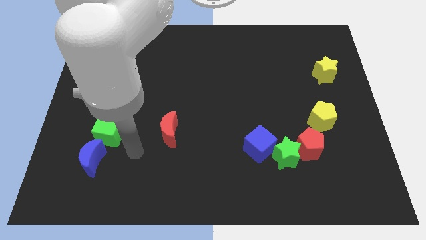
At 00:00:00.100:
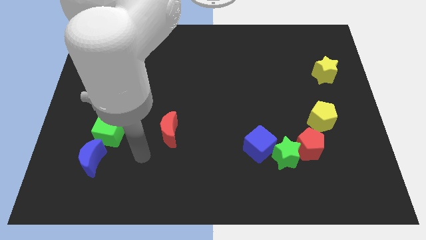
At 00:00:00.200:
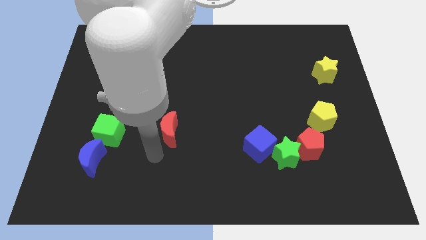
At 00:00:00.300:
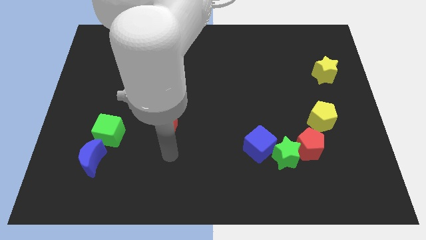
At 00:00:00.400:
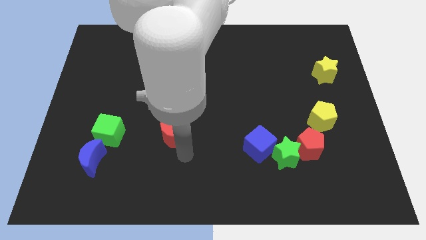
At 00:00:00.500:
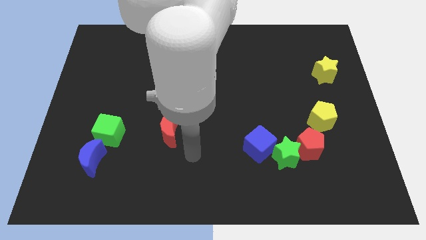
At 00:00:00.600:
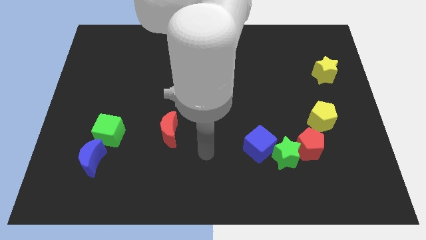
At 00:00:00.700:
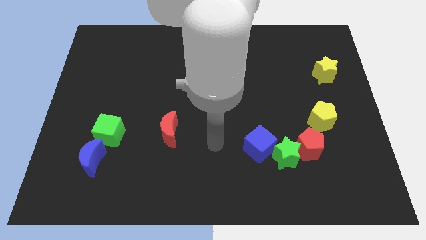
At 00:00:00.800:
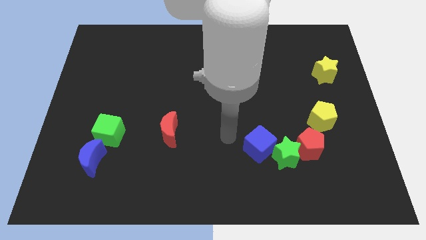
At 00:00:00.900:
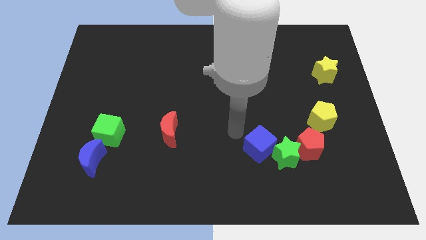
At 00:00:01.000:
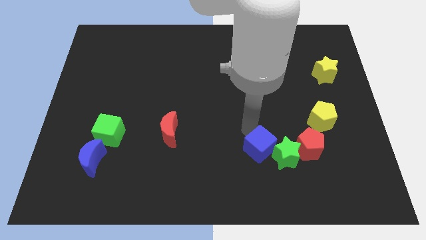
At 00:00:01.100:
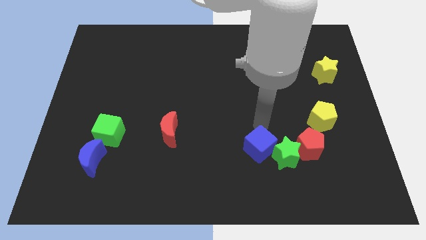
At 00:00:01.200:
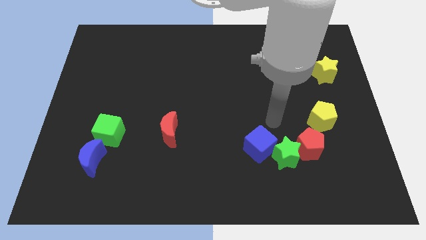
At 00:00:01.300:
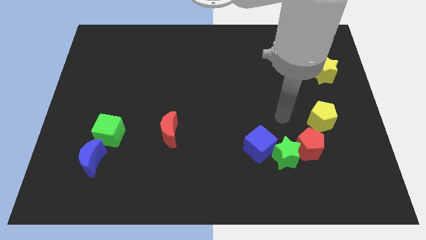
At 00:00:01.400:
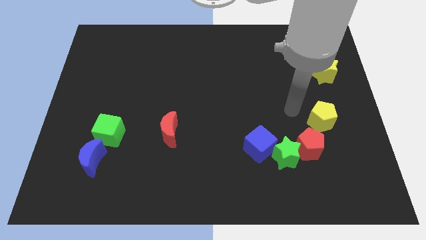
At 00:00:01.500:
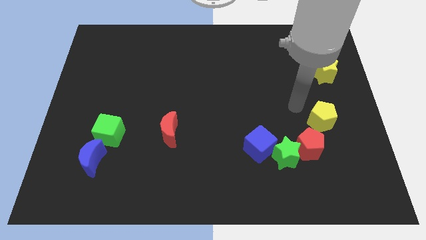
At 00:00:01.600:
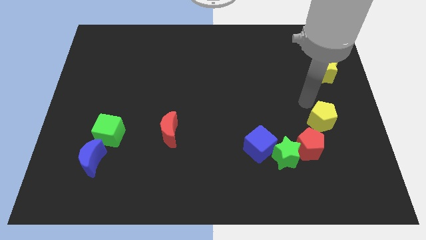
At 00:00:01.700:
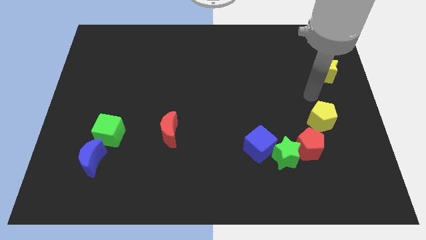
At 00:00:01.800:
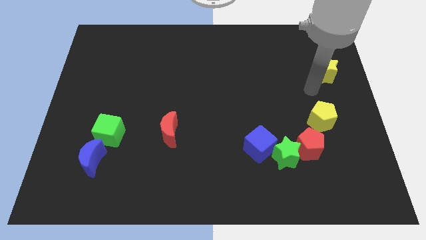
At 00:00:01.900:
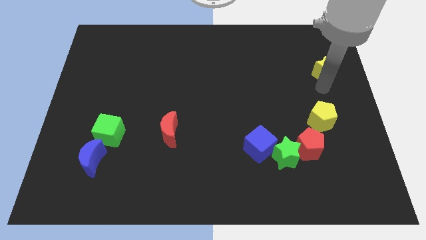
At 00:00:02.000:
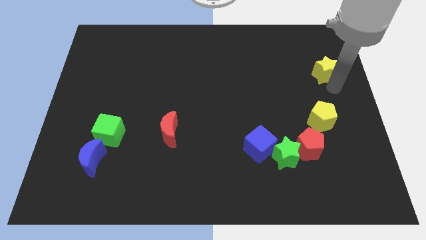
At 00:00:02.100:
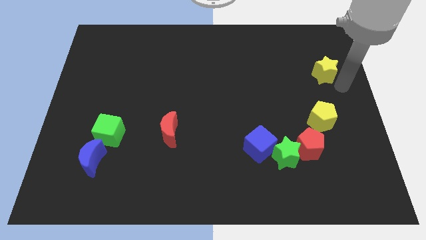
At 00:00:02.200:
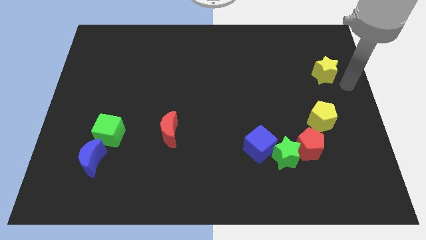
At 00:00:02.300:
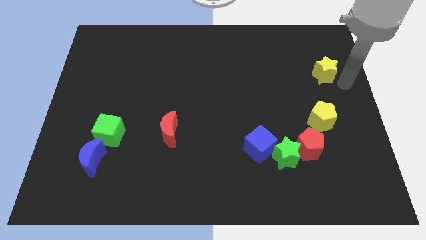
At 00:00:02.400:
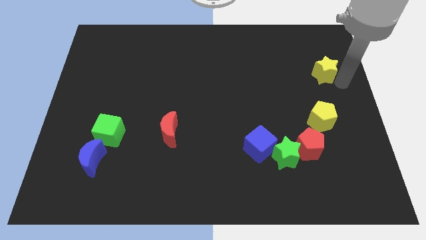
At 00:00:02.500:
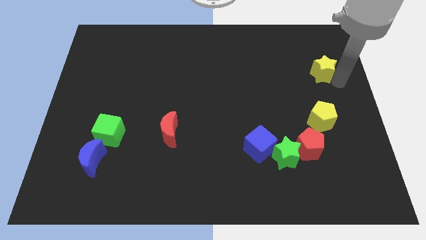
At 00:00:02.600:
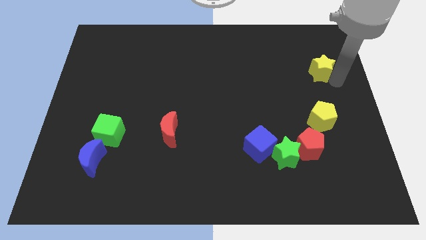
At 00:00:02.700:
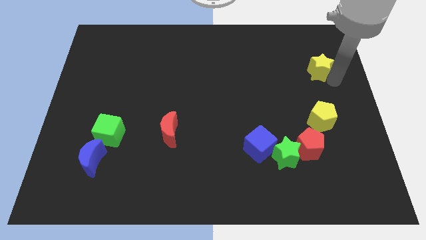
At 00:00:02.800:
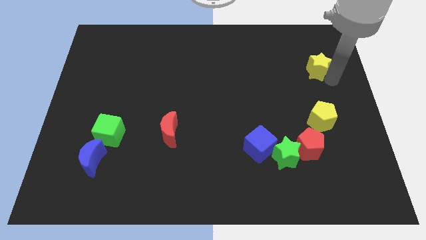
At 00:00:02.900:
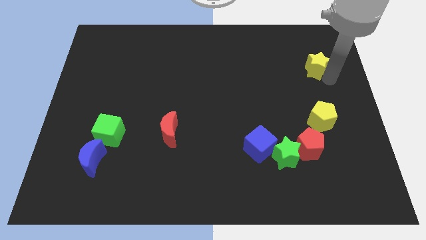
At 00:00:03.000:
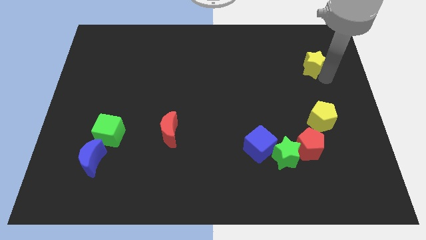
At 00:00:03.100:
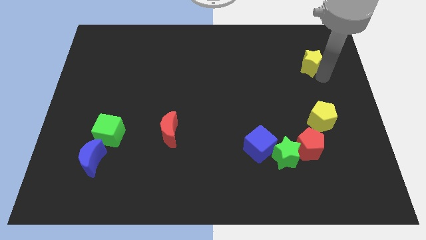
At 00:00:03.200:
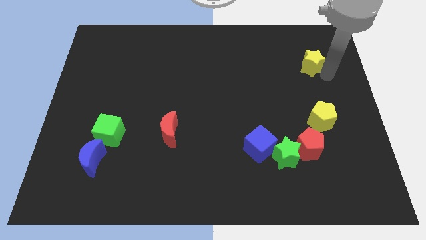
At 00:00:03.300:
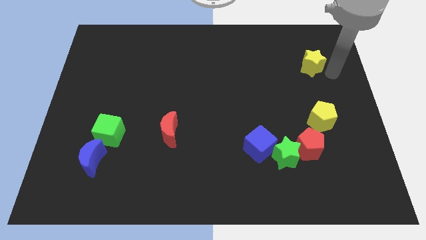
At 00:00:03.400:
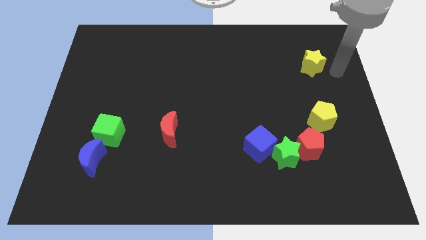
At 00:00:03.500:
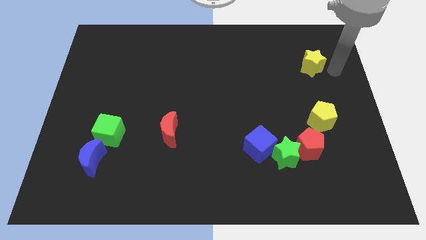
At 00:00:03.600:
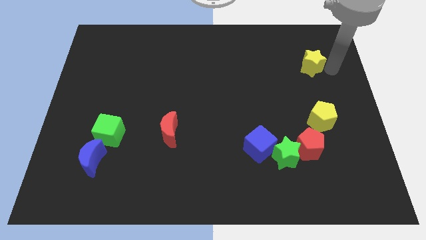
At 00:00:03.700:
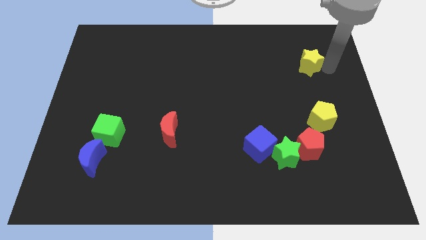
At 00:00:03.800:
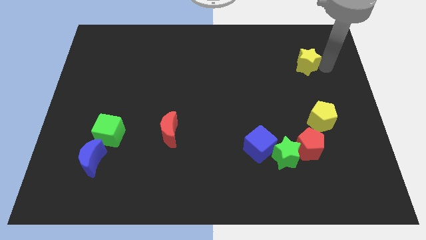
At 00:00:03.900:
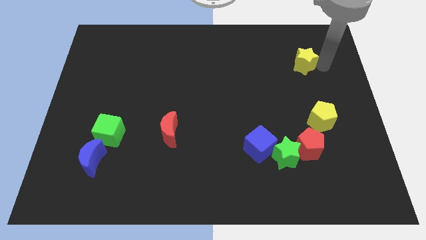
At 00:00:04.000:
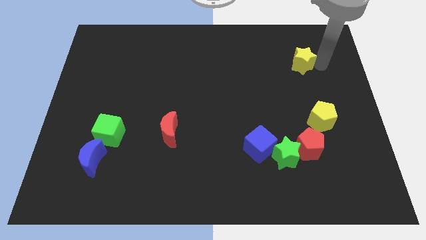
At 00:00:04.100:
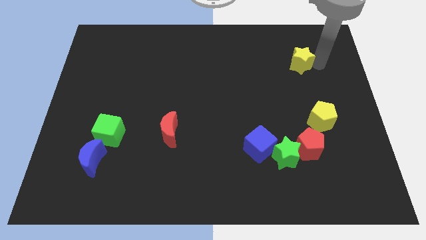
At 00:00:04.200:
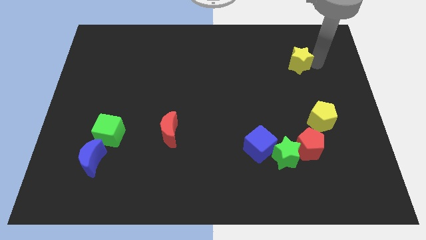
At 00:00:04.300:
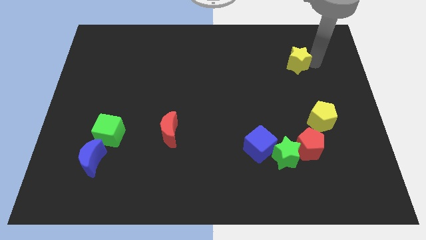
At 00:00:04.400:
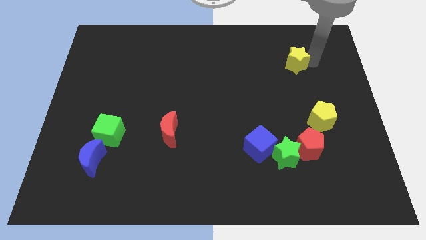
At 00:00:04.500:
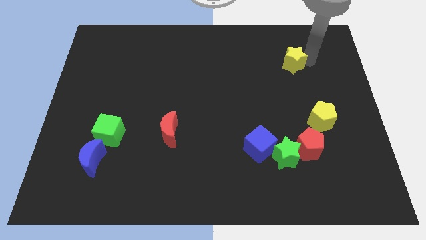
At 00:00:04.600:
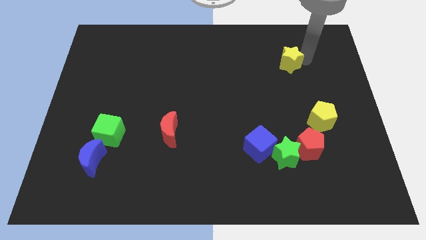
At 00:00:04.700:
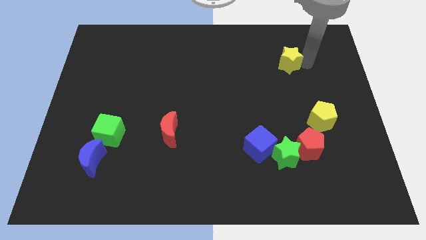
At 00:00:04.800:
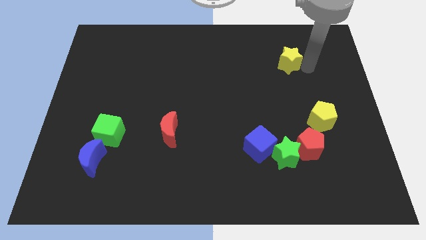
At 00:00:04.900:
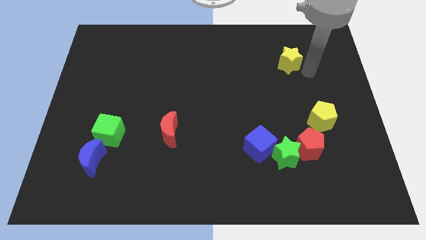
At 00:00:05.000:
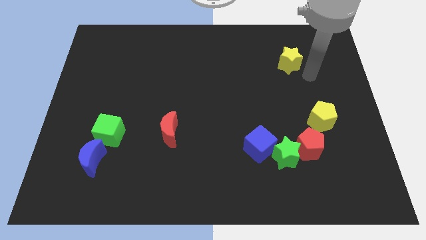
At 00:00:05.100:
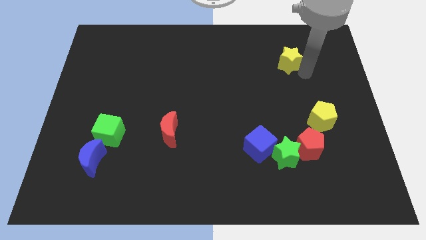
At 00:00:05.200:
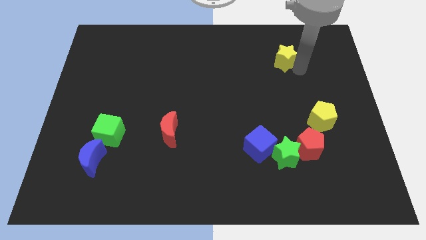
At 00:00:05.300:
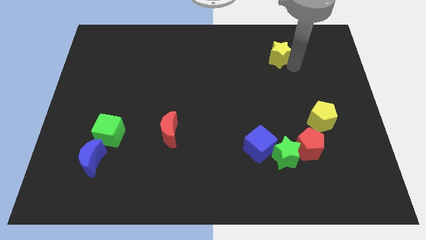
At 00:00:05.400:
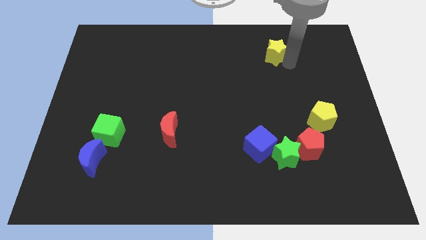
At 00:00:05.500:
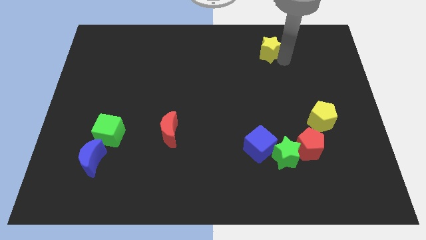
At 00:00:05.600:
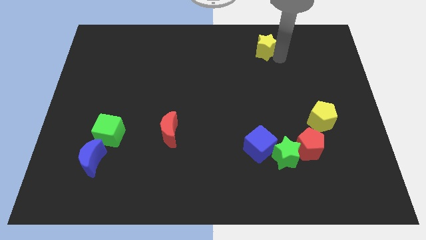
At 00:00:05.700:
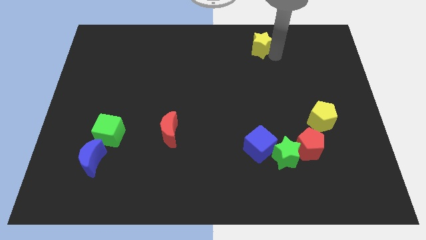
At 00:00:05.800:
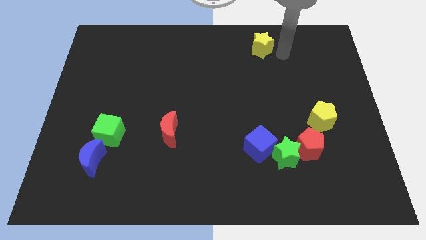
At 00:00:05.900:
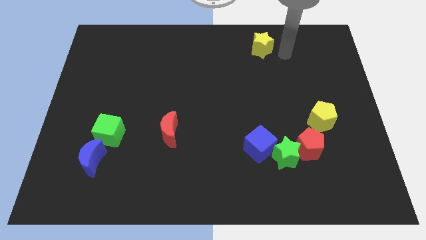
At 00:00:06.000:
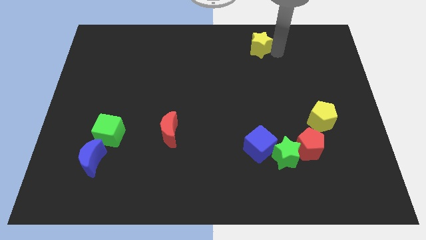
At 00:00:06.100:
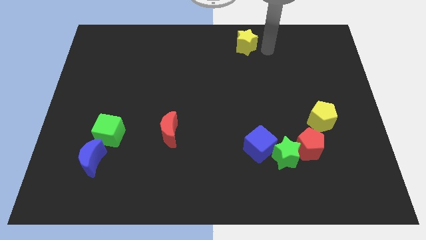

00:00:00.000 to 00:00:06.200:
move the yellow star to the top
